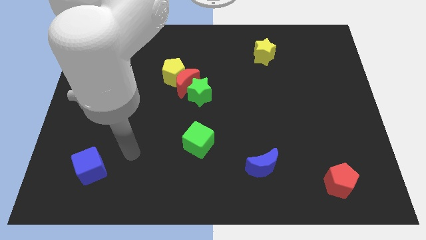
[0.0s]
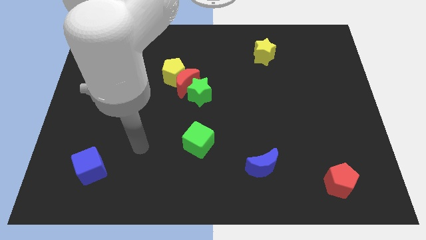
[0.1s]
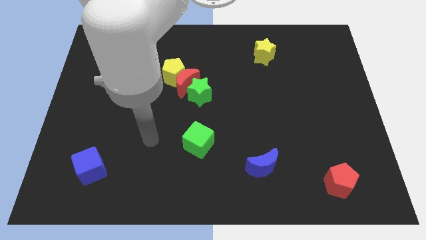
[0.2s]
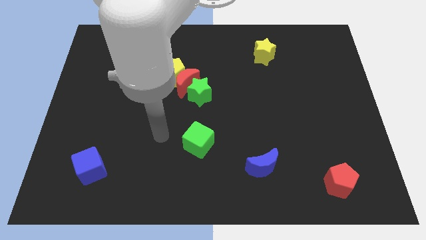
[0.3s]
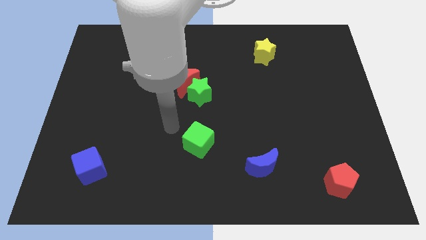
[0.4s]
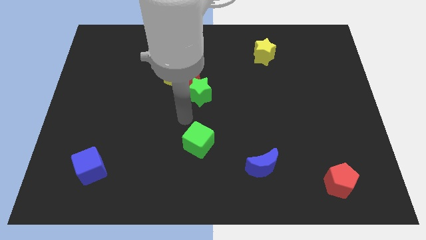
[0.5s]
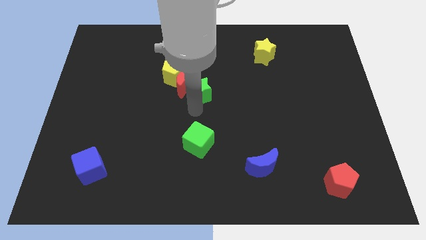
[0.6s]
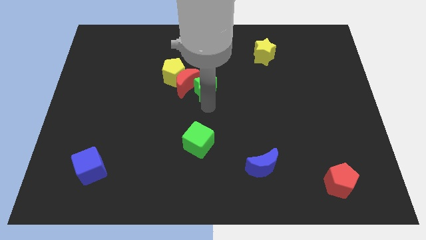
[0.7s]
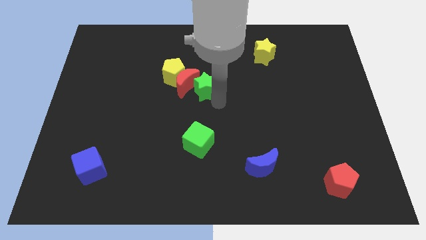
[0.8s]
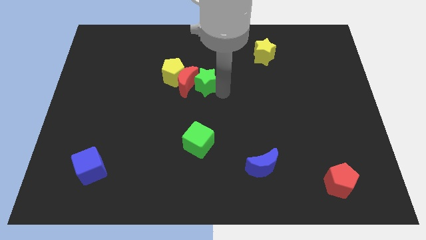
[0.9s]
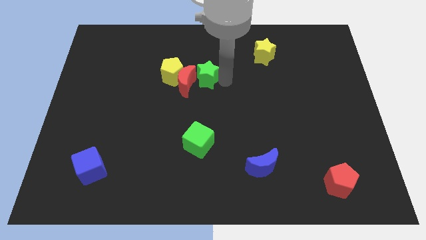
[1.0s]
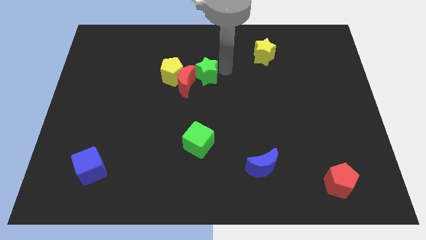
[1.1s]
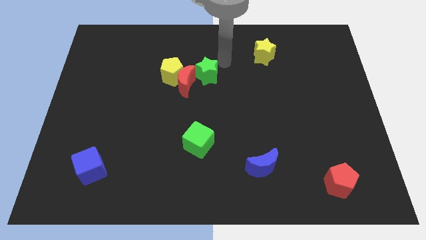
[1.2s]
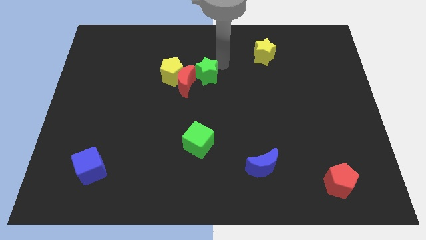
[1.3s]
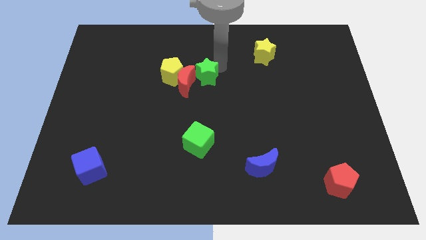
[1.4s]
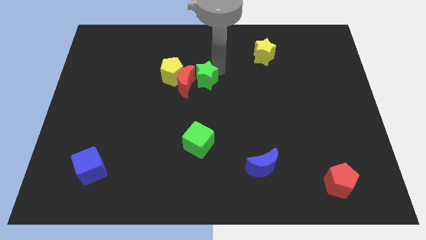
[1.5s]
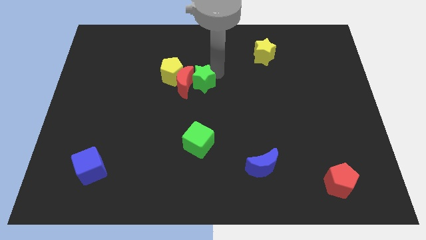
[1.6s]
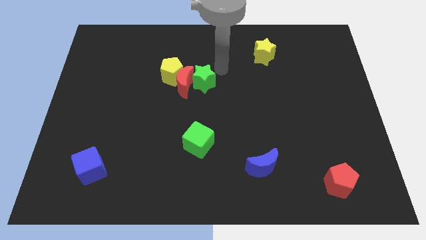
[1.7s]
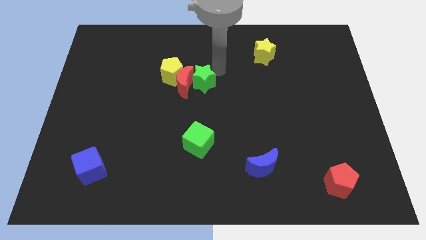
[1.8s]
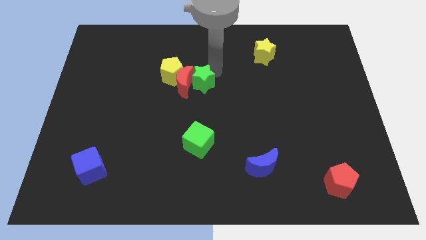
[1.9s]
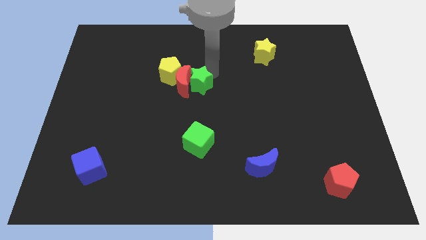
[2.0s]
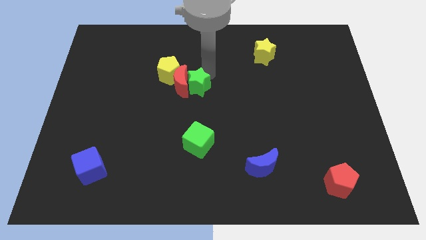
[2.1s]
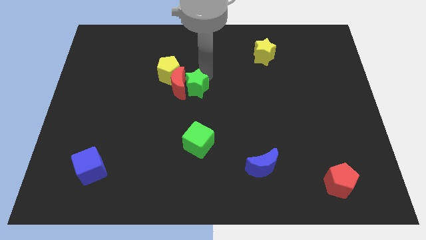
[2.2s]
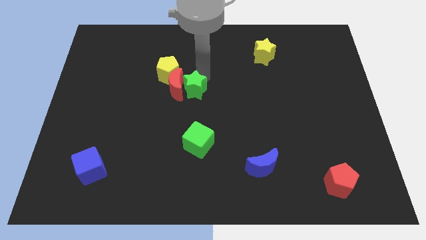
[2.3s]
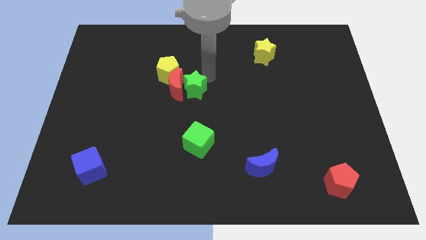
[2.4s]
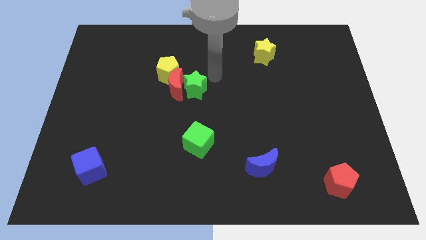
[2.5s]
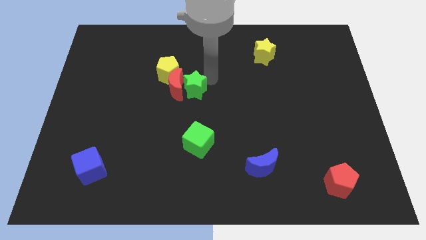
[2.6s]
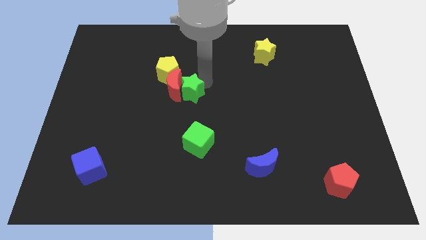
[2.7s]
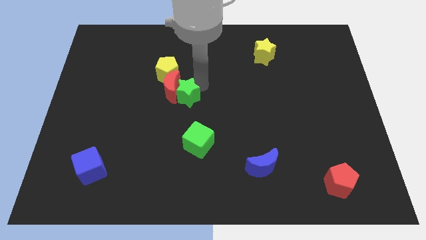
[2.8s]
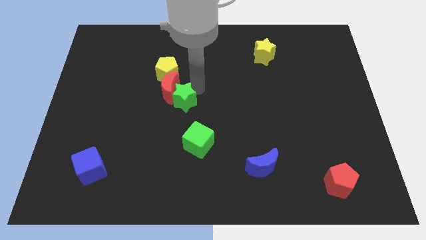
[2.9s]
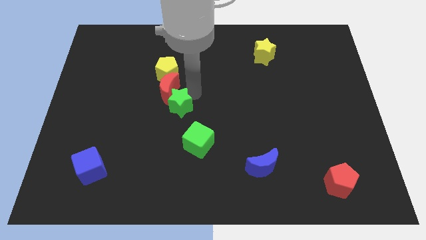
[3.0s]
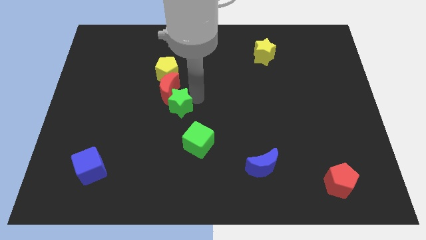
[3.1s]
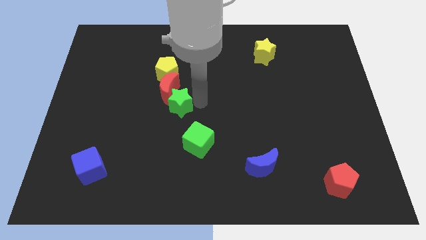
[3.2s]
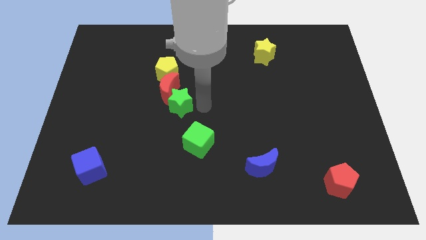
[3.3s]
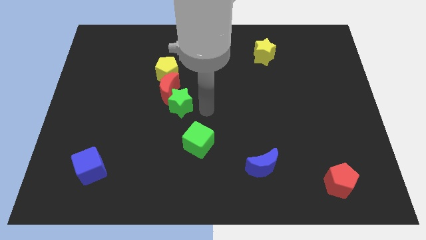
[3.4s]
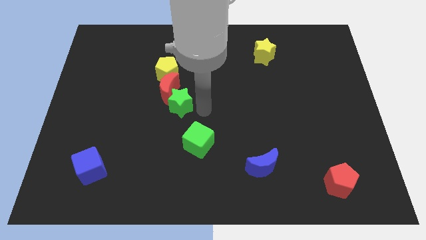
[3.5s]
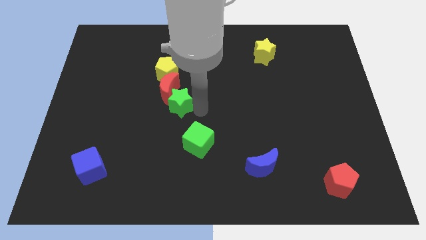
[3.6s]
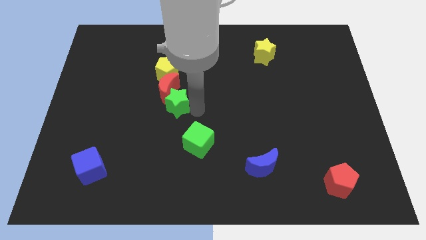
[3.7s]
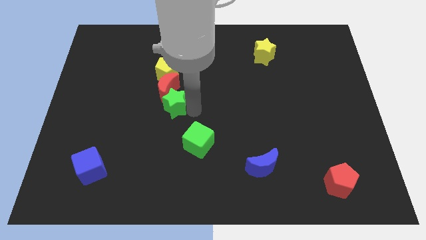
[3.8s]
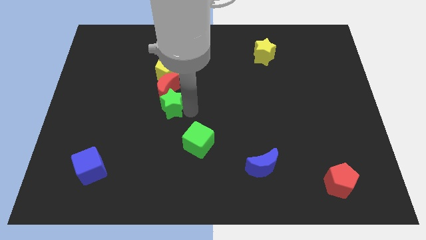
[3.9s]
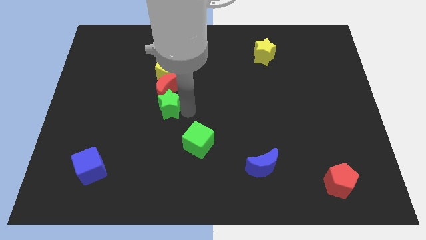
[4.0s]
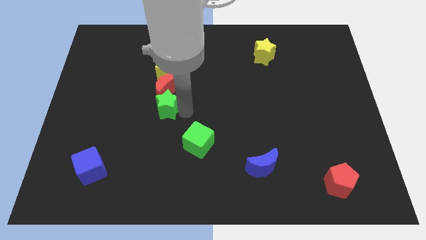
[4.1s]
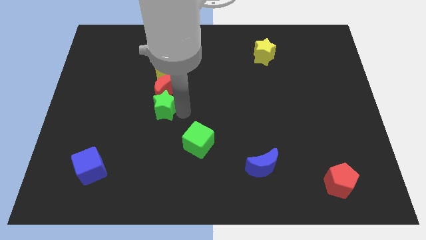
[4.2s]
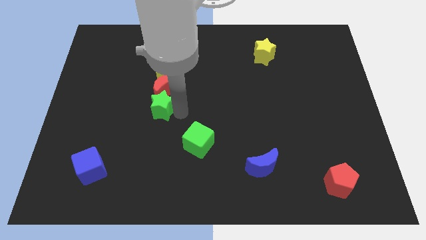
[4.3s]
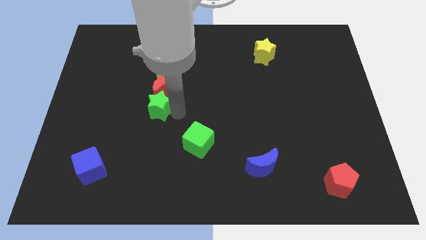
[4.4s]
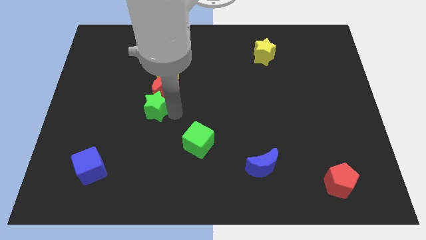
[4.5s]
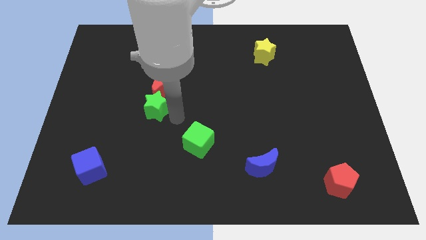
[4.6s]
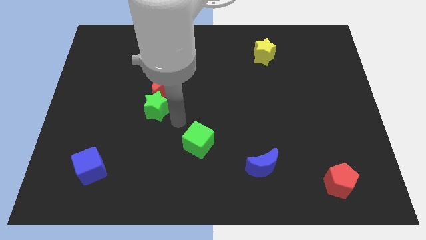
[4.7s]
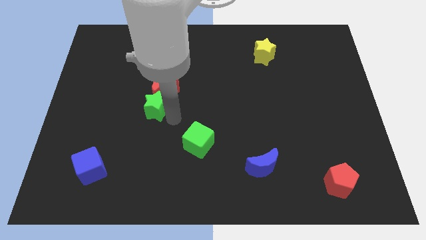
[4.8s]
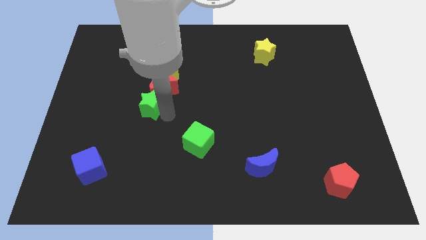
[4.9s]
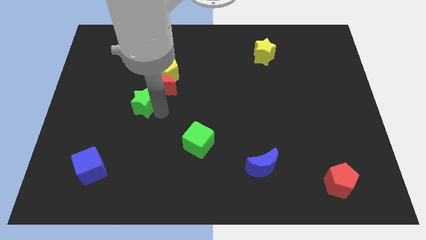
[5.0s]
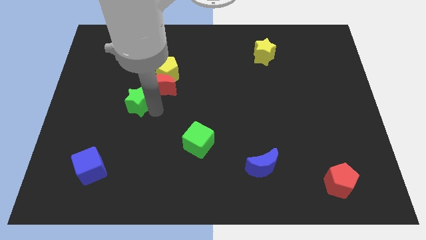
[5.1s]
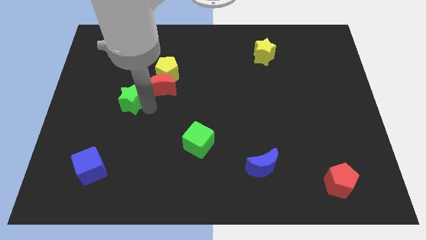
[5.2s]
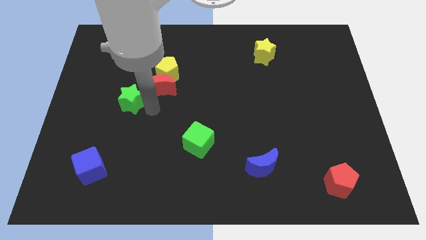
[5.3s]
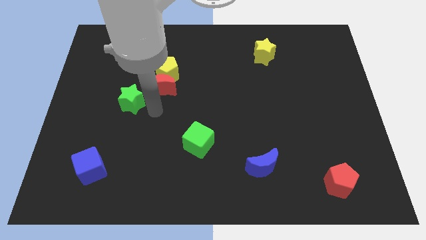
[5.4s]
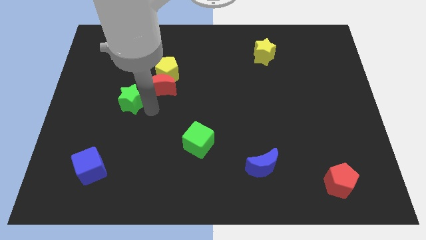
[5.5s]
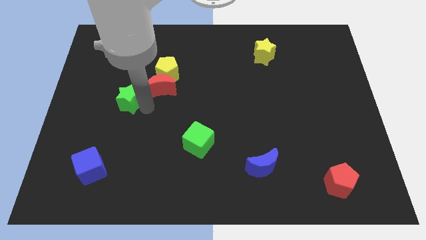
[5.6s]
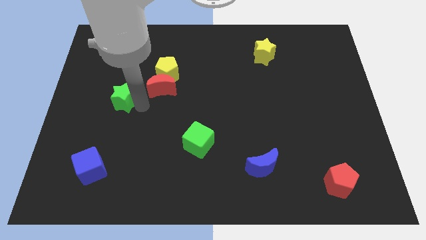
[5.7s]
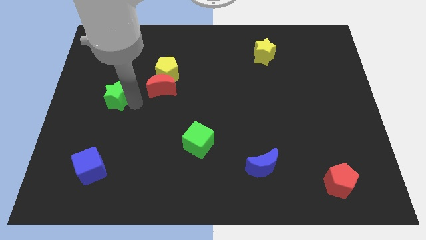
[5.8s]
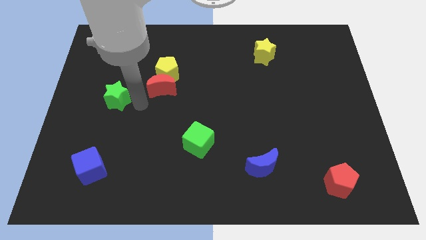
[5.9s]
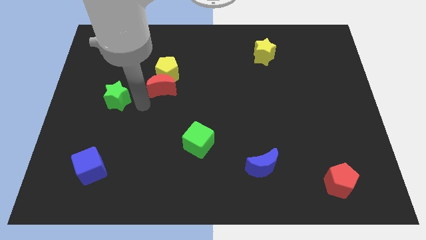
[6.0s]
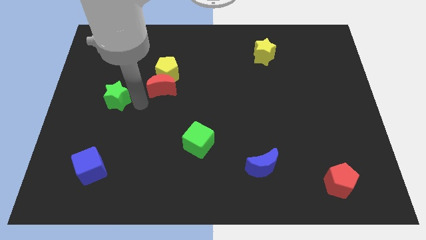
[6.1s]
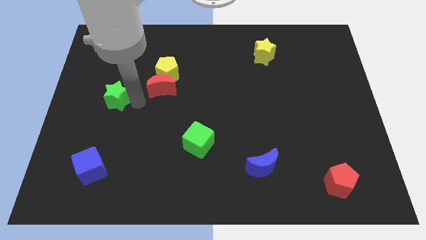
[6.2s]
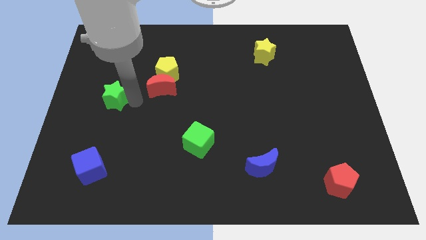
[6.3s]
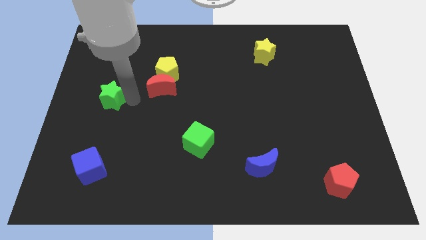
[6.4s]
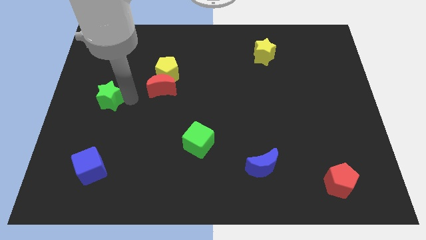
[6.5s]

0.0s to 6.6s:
push the green star to the left side of the board

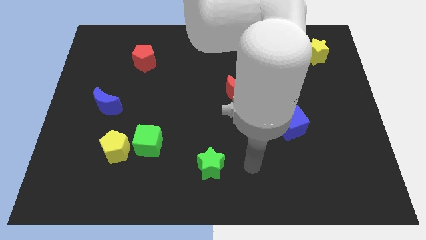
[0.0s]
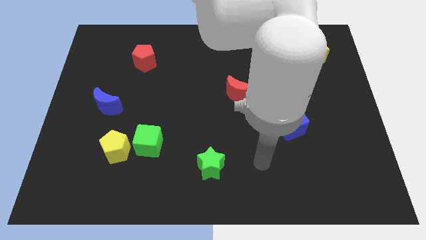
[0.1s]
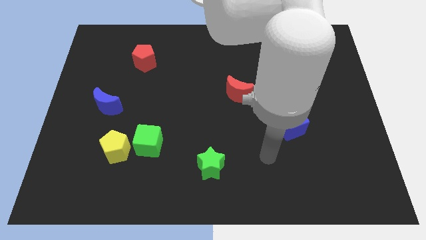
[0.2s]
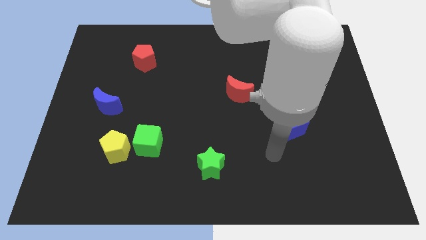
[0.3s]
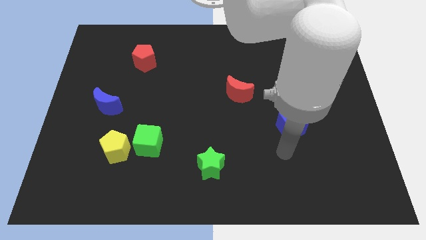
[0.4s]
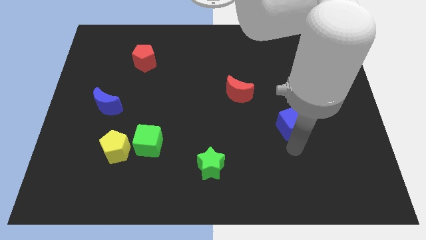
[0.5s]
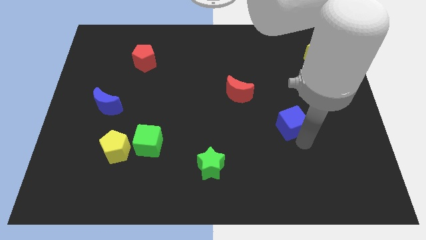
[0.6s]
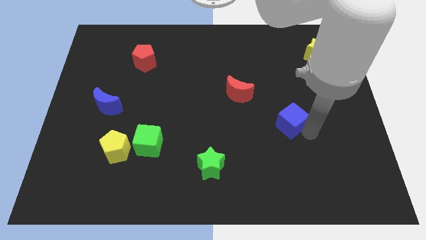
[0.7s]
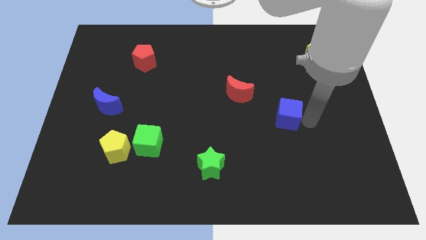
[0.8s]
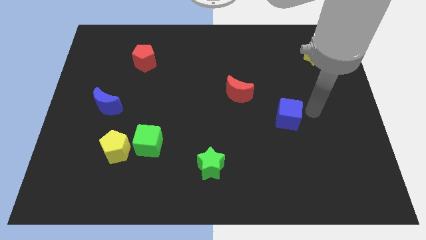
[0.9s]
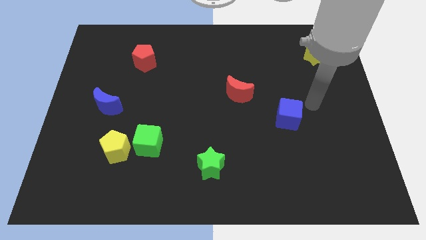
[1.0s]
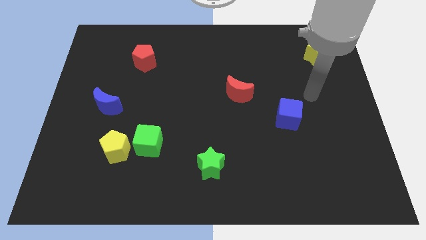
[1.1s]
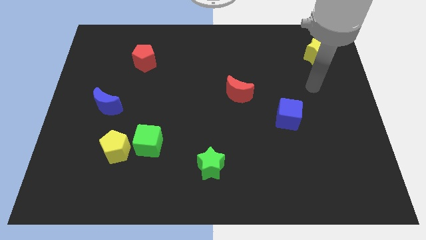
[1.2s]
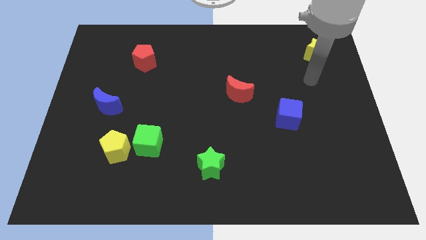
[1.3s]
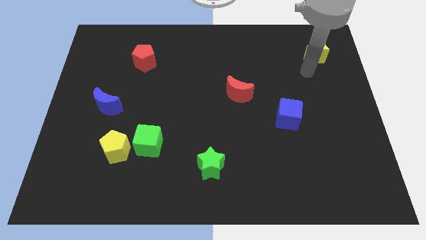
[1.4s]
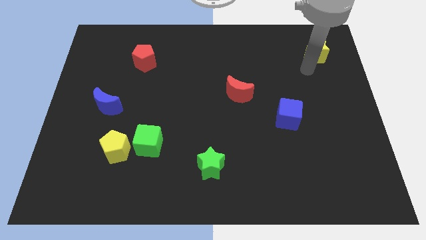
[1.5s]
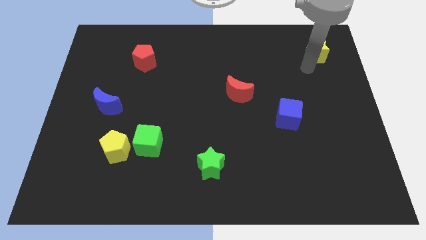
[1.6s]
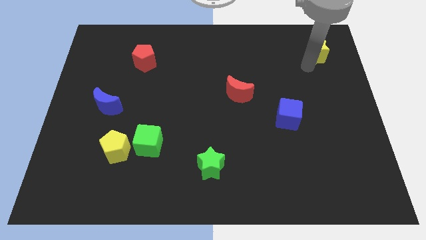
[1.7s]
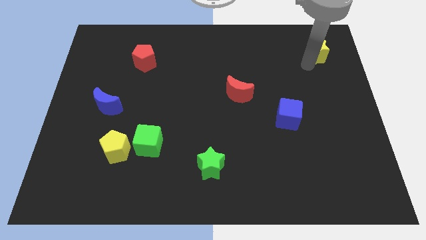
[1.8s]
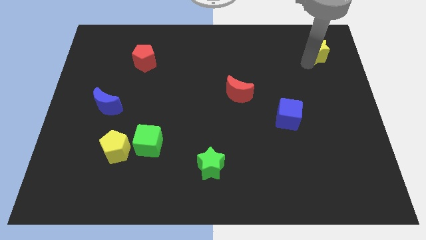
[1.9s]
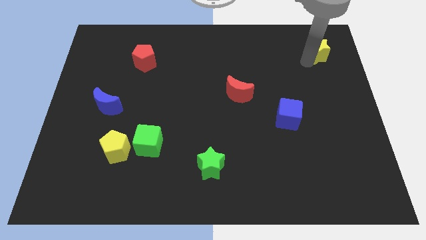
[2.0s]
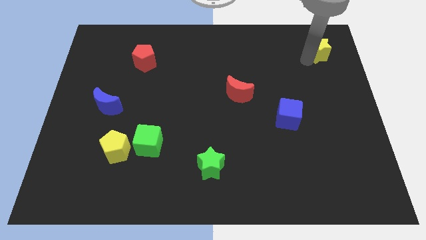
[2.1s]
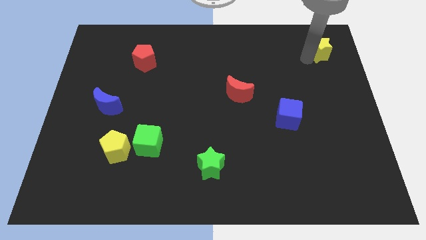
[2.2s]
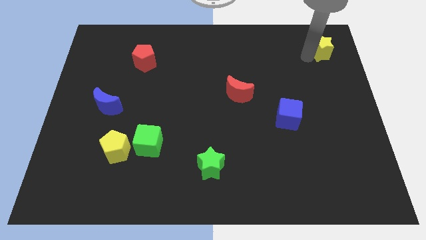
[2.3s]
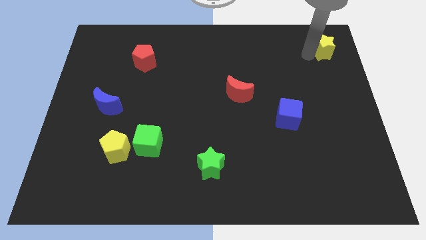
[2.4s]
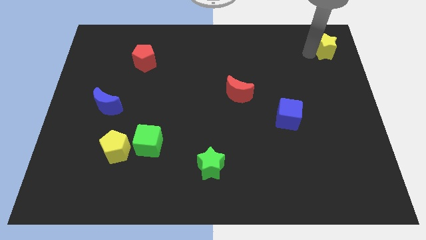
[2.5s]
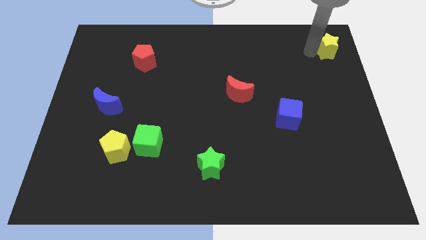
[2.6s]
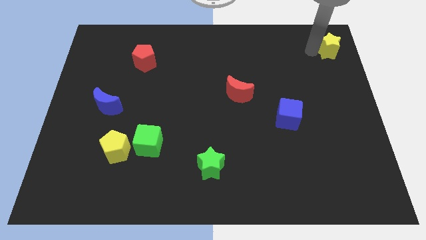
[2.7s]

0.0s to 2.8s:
slide the yellow star to the top right
